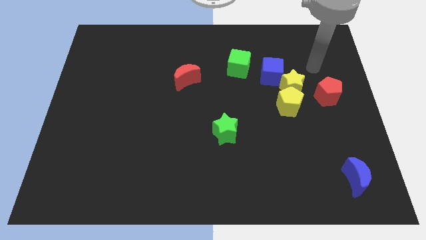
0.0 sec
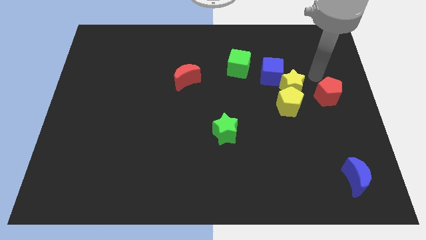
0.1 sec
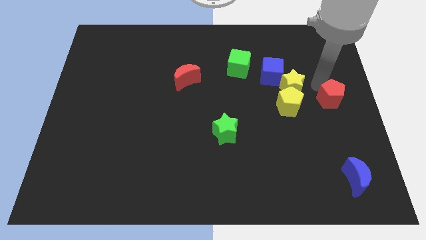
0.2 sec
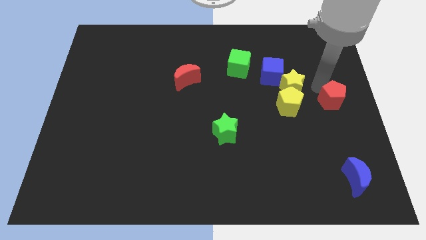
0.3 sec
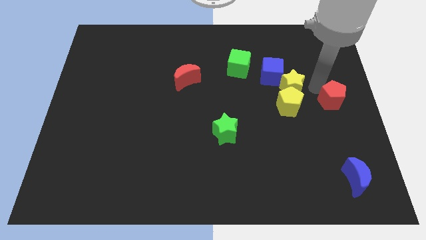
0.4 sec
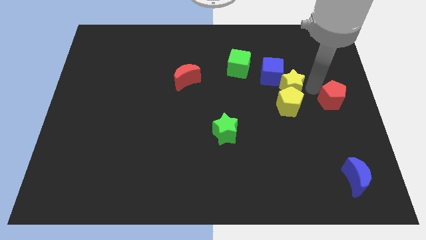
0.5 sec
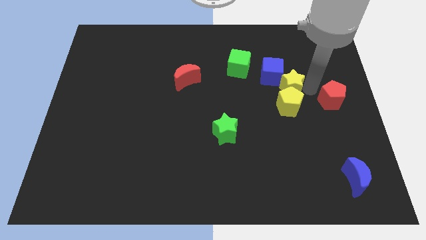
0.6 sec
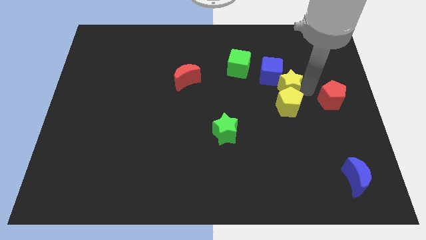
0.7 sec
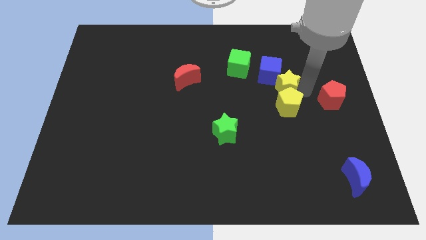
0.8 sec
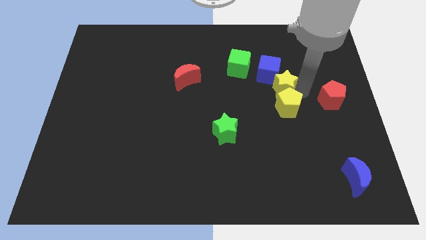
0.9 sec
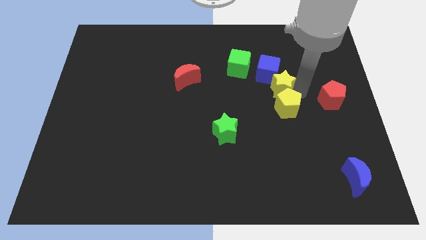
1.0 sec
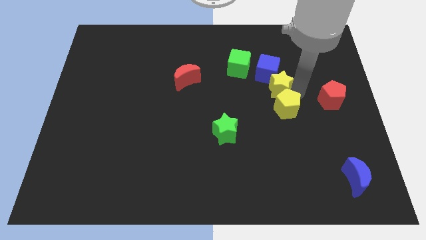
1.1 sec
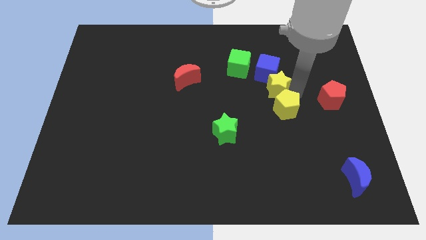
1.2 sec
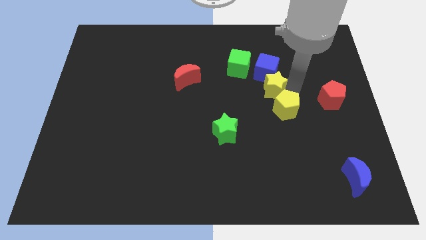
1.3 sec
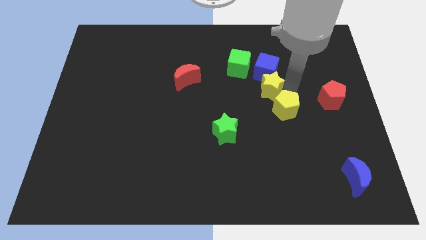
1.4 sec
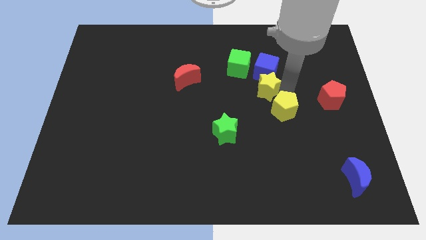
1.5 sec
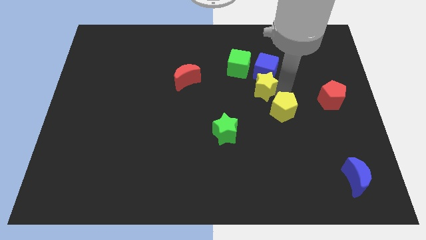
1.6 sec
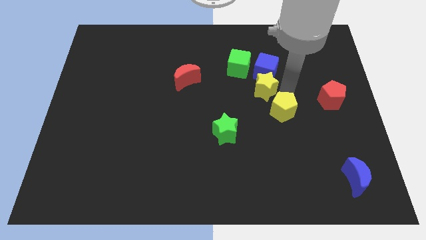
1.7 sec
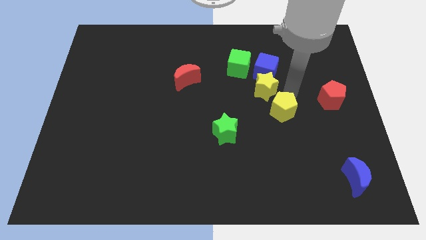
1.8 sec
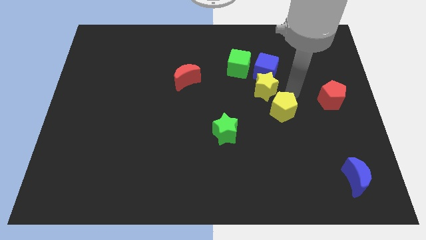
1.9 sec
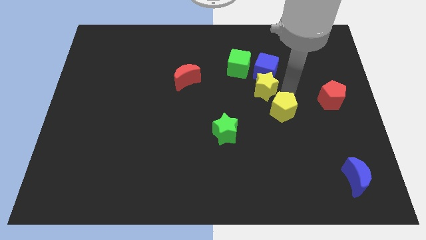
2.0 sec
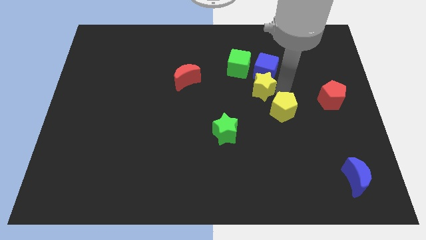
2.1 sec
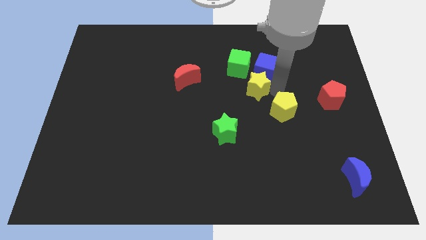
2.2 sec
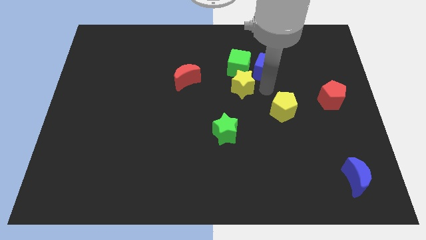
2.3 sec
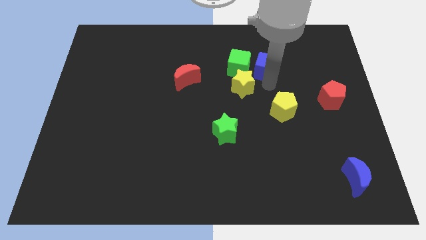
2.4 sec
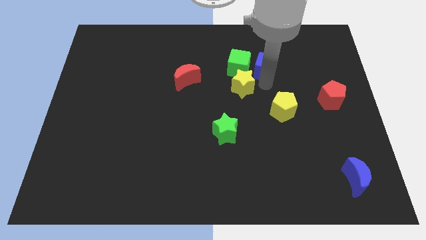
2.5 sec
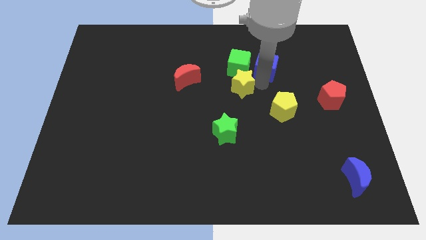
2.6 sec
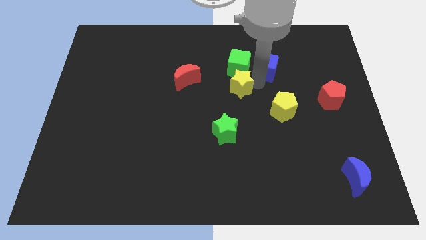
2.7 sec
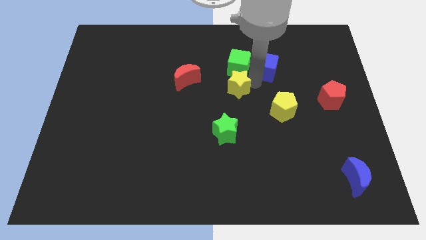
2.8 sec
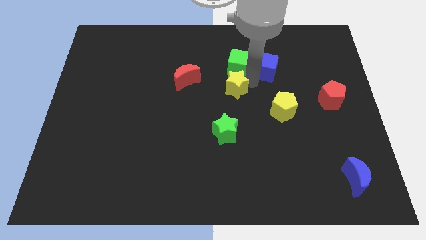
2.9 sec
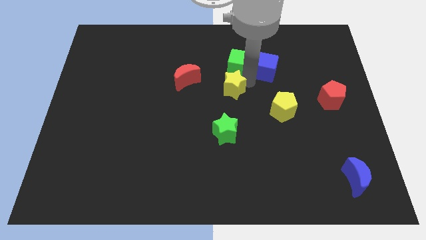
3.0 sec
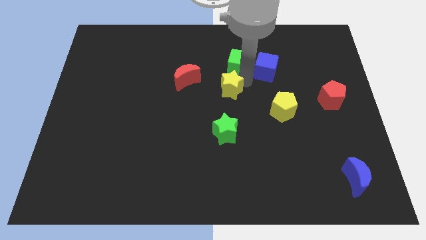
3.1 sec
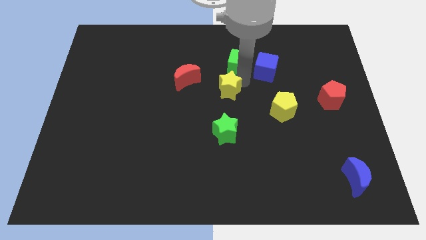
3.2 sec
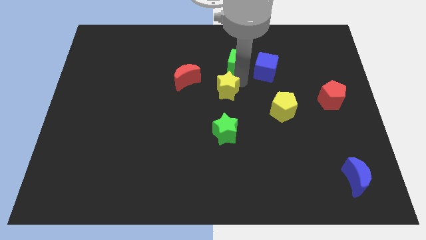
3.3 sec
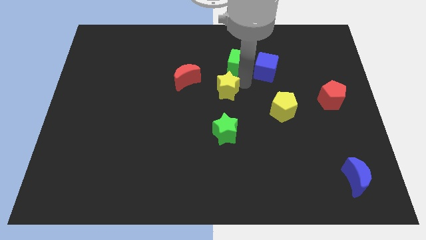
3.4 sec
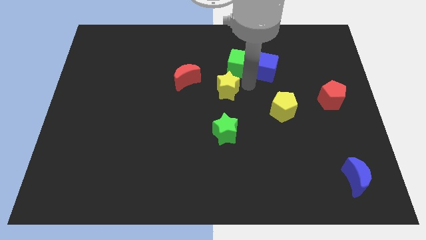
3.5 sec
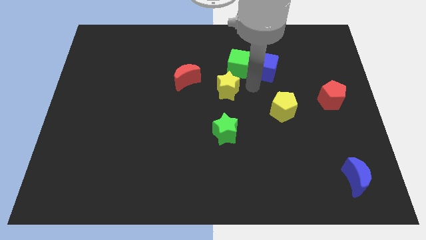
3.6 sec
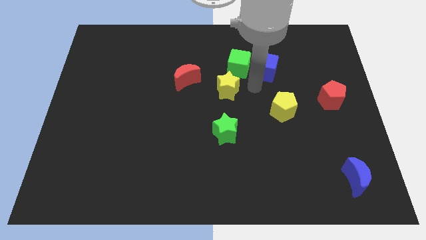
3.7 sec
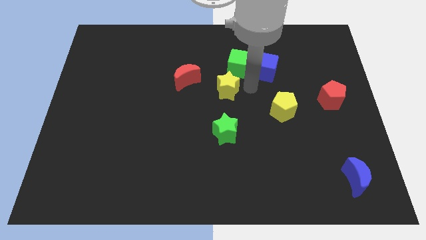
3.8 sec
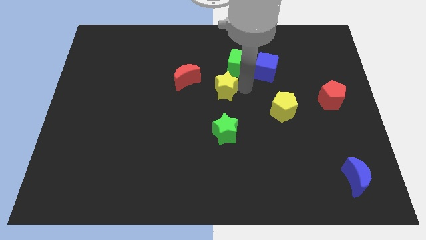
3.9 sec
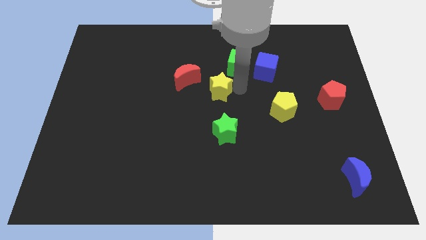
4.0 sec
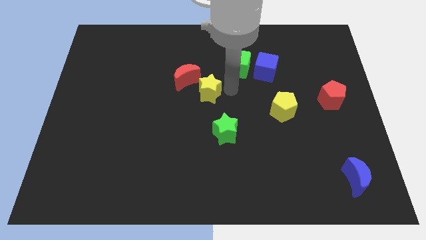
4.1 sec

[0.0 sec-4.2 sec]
push the yellow star to the left

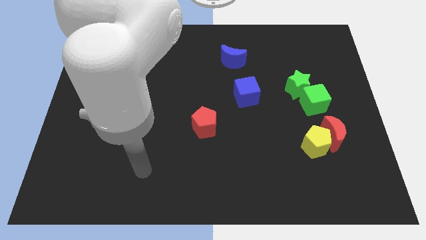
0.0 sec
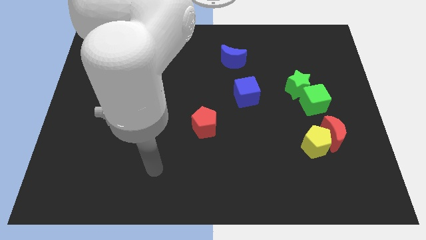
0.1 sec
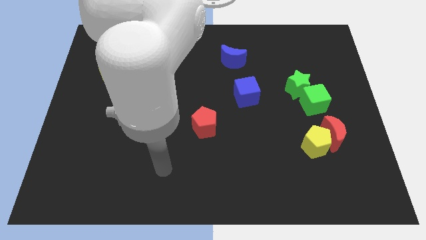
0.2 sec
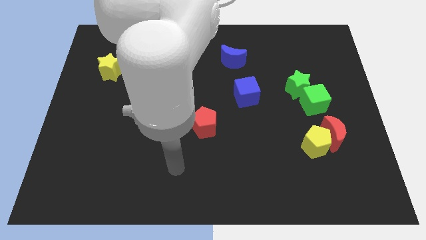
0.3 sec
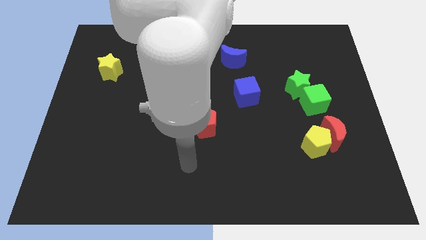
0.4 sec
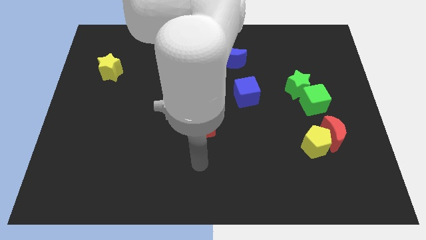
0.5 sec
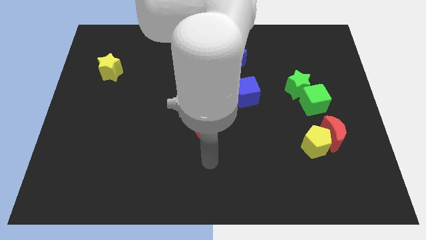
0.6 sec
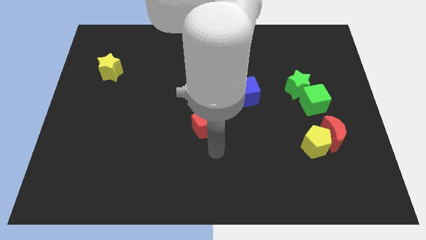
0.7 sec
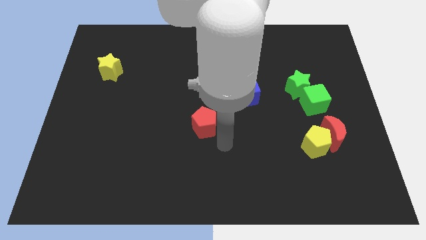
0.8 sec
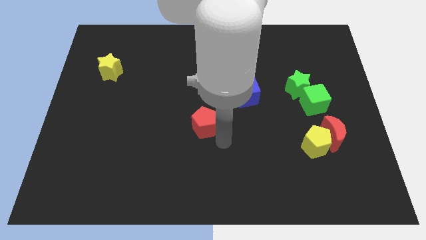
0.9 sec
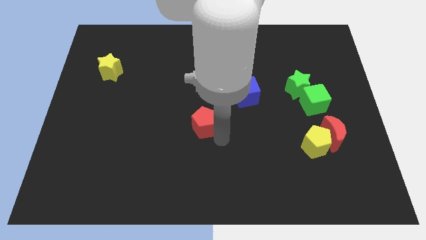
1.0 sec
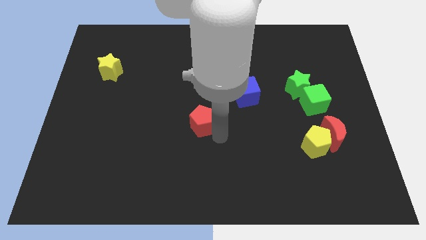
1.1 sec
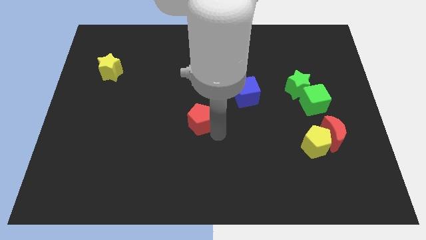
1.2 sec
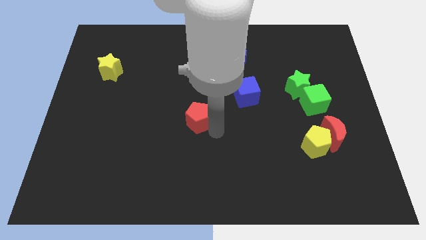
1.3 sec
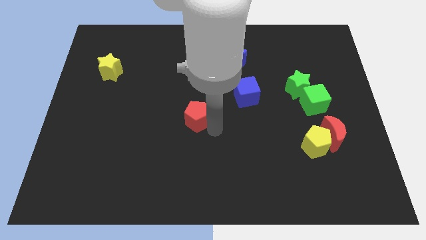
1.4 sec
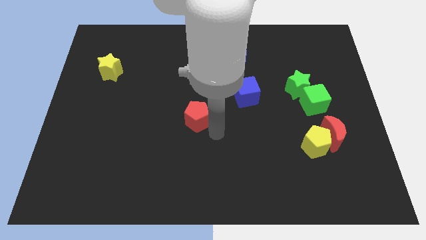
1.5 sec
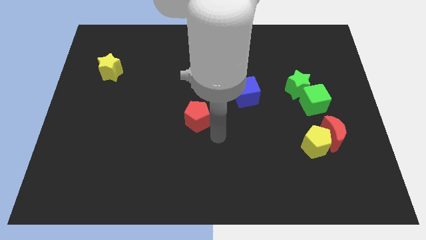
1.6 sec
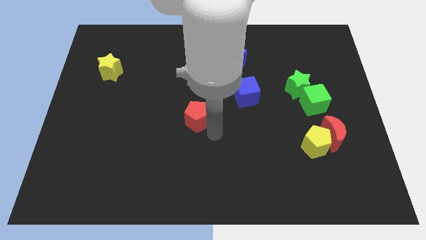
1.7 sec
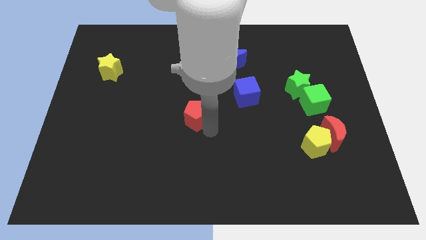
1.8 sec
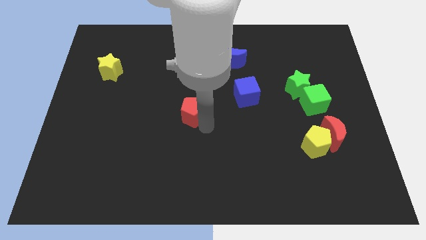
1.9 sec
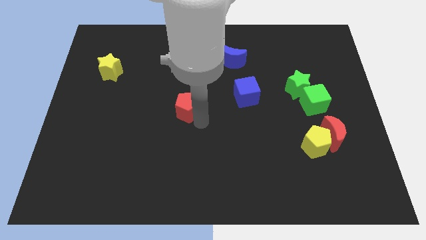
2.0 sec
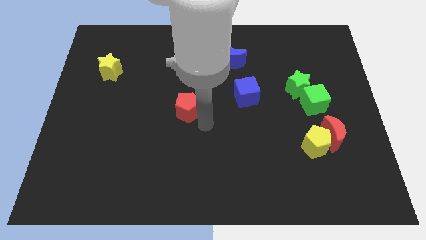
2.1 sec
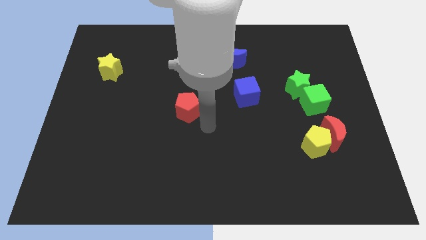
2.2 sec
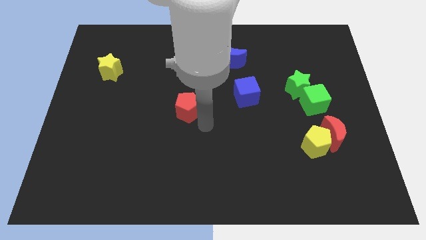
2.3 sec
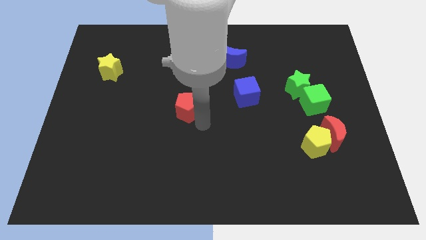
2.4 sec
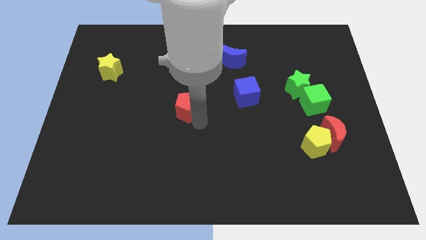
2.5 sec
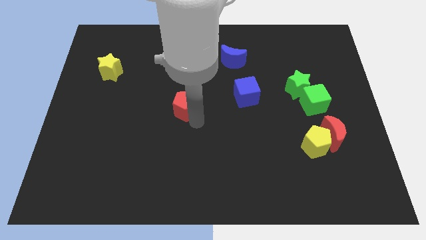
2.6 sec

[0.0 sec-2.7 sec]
push the red pentagon somewhat up and left

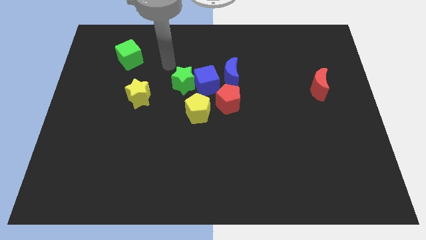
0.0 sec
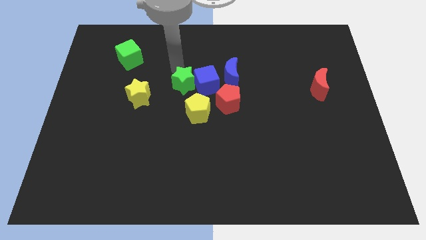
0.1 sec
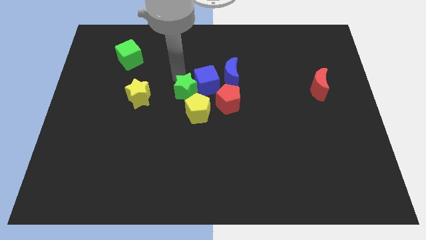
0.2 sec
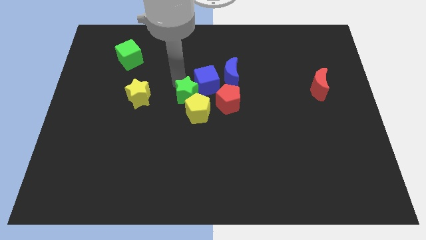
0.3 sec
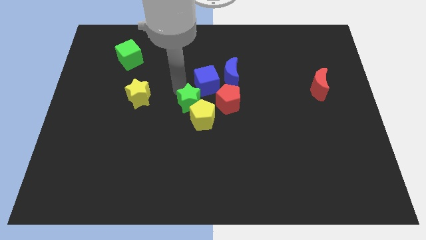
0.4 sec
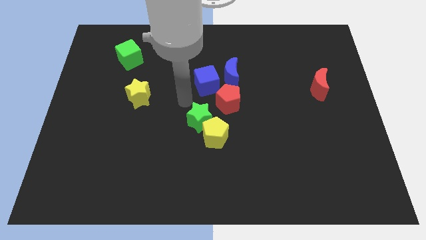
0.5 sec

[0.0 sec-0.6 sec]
slightly push the yellow pentagon downwards and then right

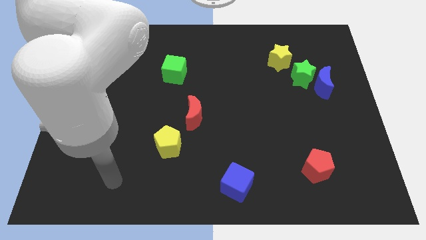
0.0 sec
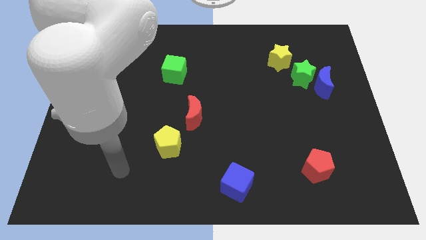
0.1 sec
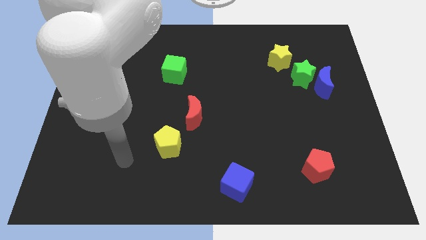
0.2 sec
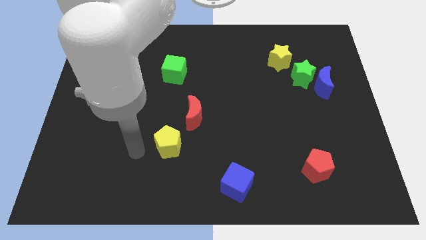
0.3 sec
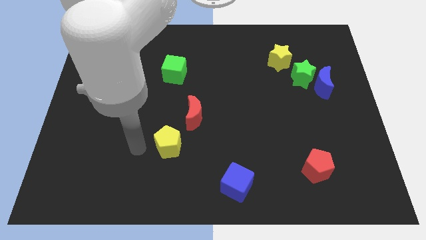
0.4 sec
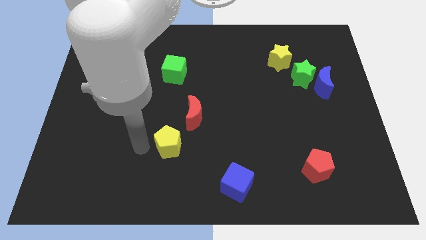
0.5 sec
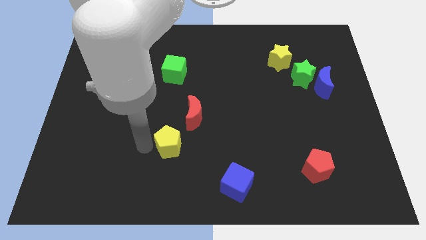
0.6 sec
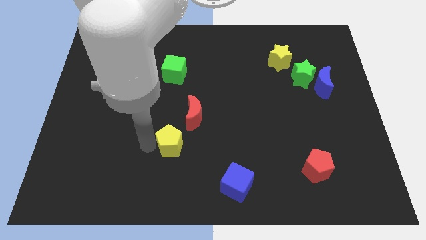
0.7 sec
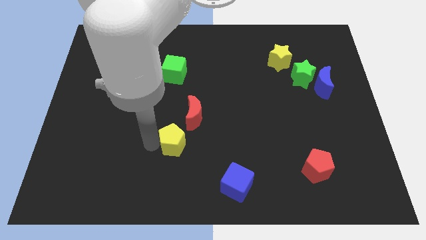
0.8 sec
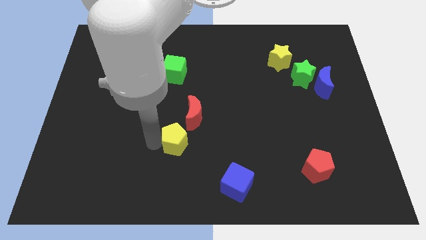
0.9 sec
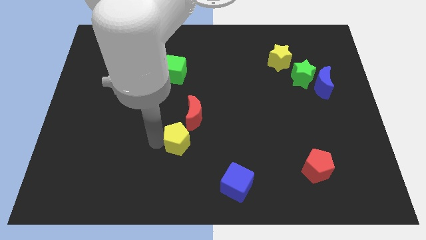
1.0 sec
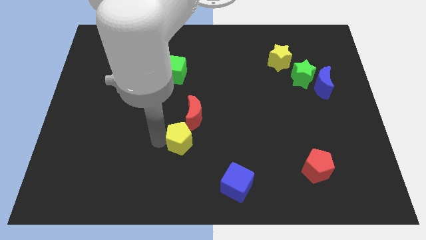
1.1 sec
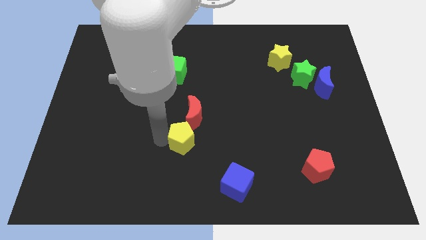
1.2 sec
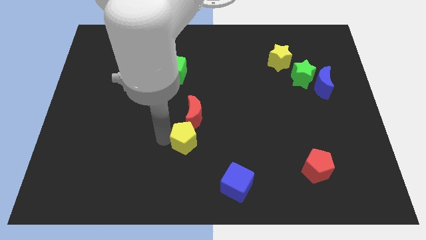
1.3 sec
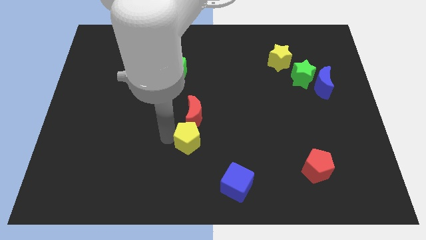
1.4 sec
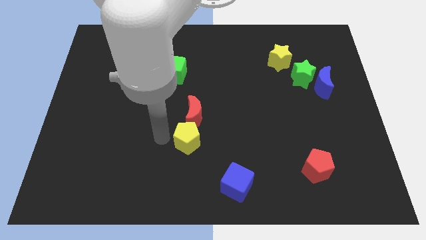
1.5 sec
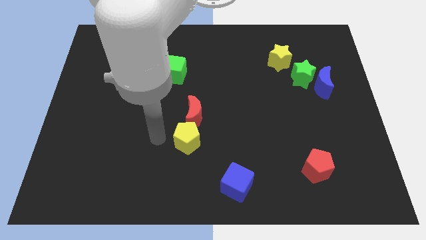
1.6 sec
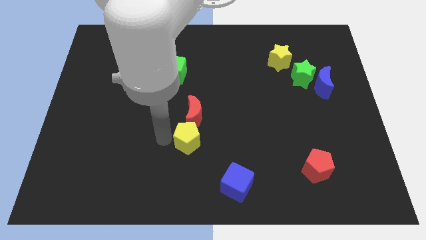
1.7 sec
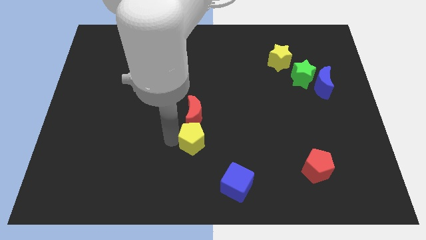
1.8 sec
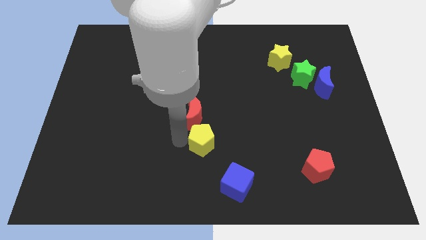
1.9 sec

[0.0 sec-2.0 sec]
slightly push the yellow pentagon right
